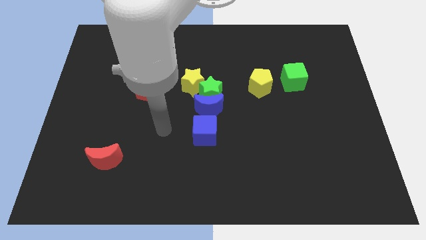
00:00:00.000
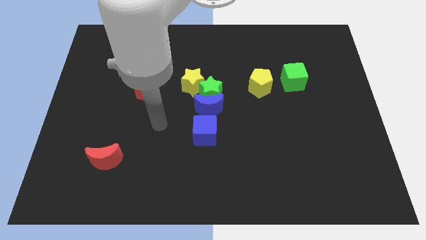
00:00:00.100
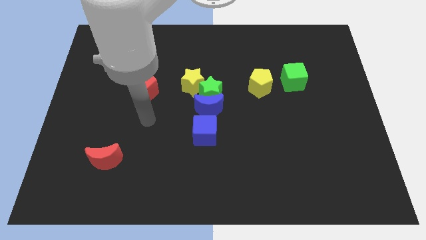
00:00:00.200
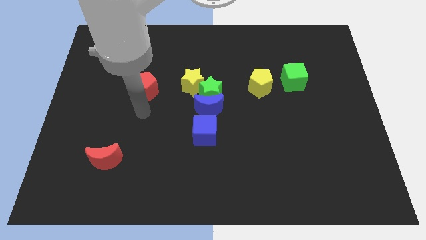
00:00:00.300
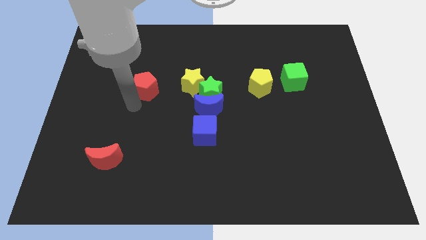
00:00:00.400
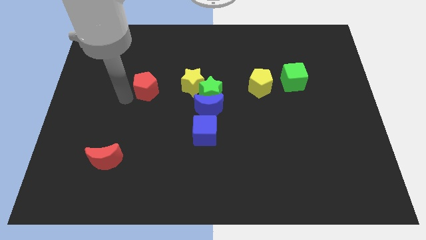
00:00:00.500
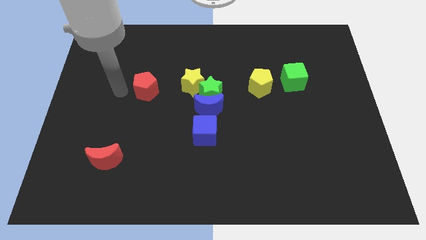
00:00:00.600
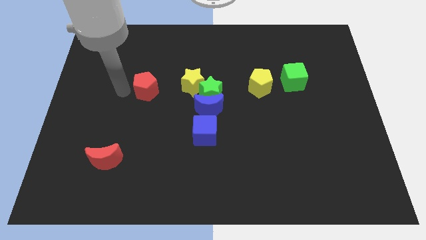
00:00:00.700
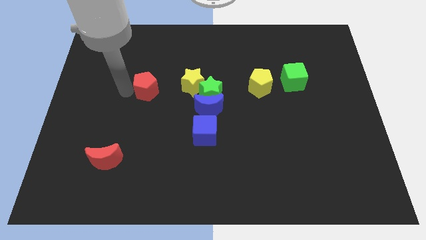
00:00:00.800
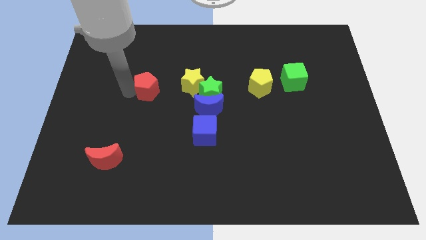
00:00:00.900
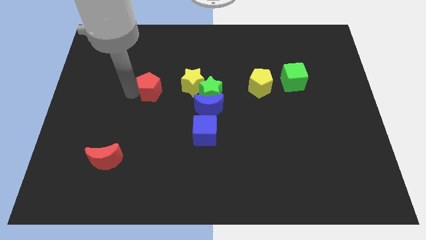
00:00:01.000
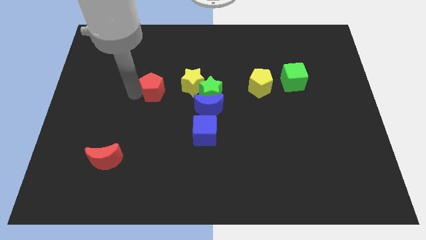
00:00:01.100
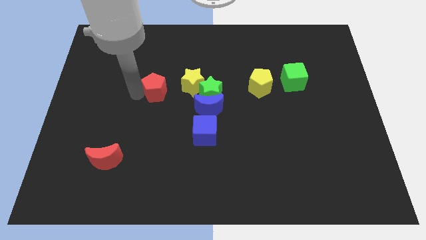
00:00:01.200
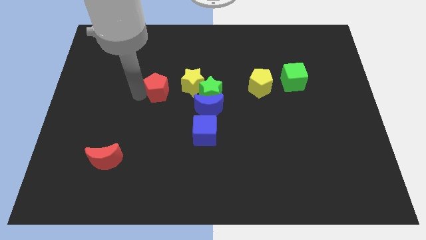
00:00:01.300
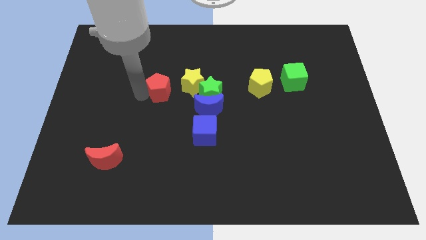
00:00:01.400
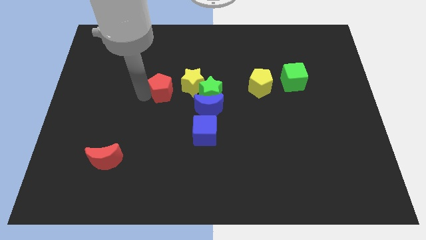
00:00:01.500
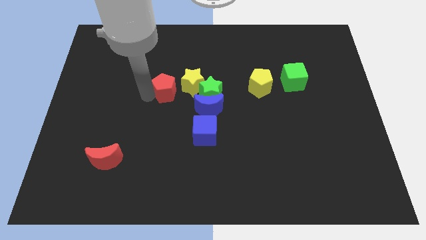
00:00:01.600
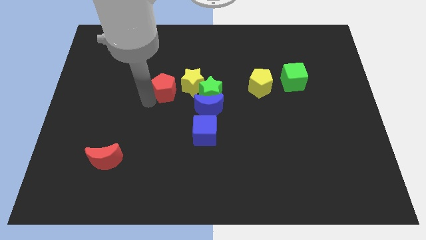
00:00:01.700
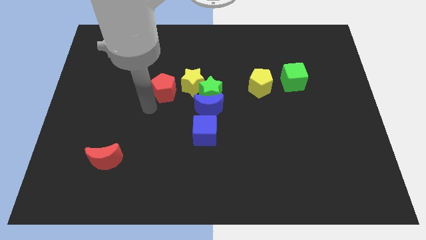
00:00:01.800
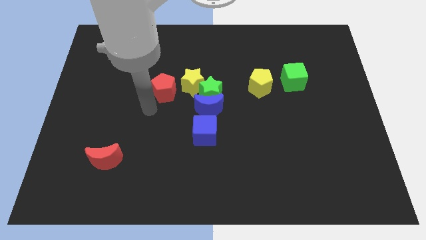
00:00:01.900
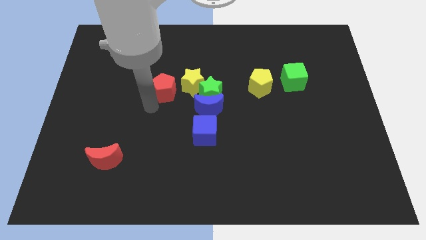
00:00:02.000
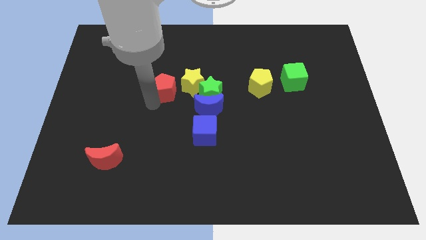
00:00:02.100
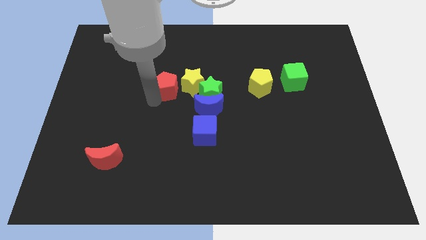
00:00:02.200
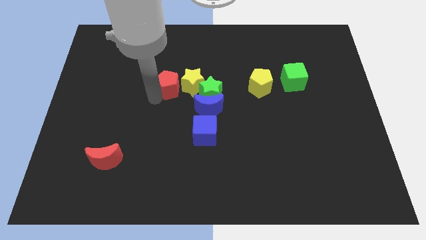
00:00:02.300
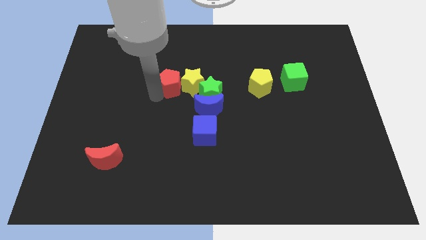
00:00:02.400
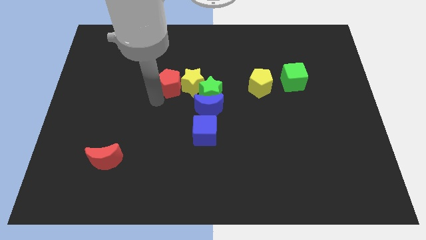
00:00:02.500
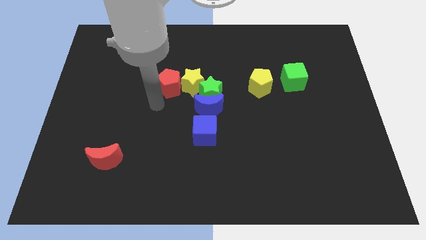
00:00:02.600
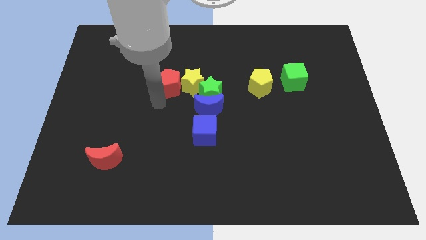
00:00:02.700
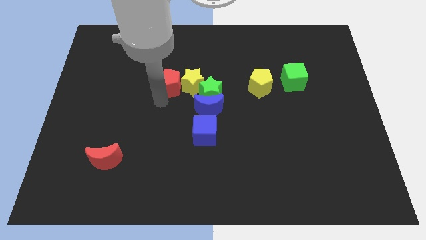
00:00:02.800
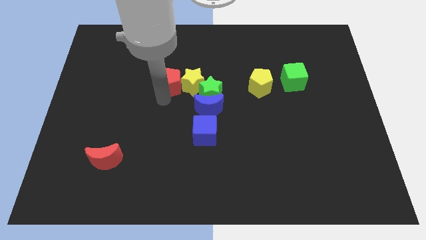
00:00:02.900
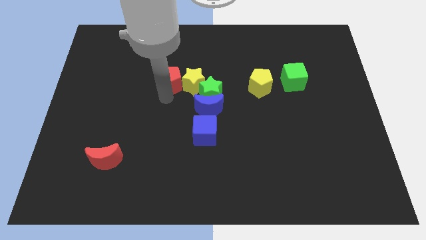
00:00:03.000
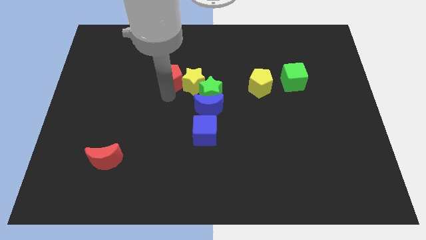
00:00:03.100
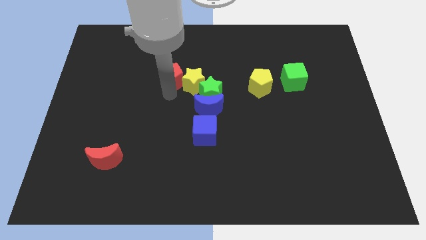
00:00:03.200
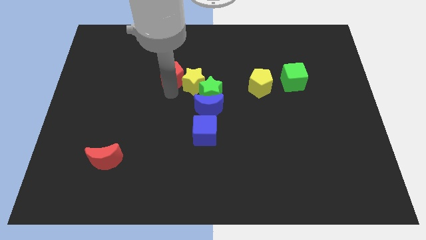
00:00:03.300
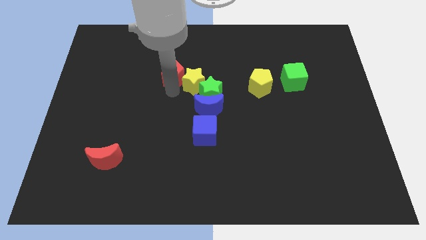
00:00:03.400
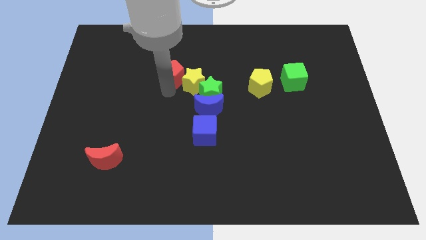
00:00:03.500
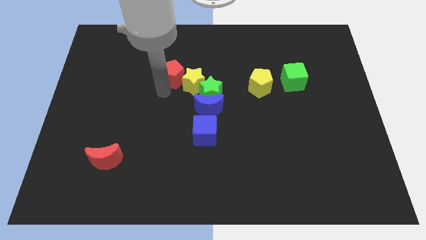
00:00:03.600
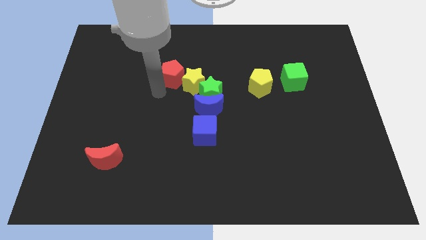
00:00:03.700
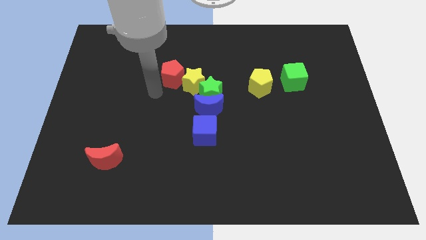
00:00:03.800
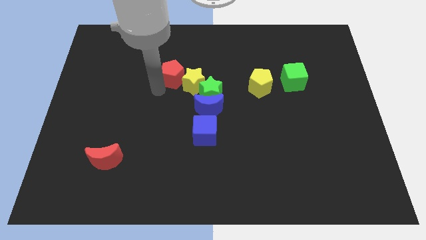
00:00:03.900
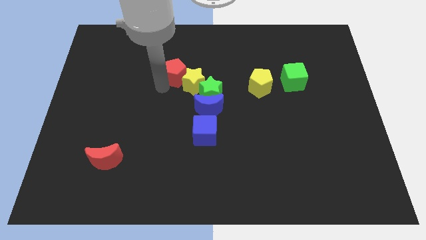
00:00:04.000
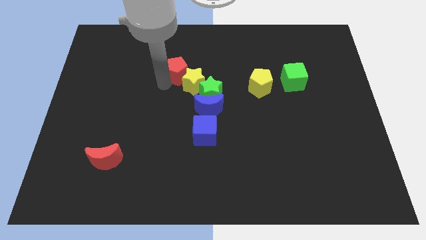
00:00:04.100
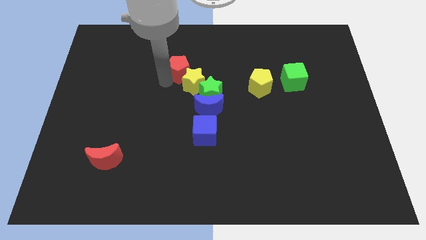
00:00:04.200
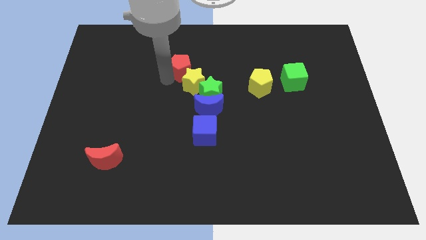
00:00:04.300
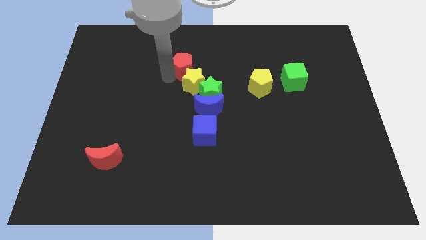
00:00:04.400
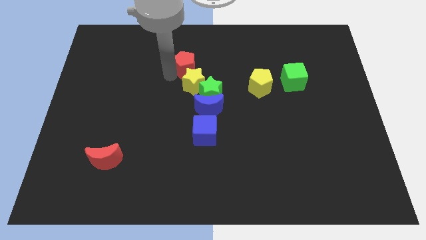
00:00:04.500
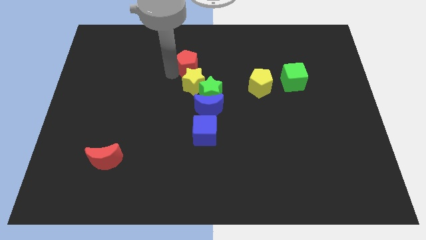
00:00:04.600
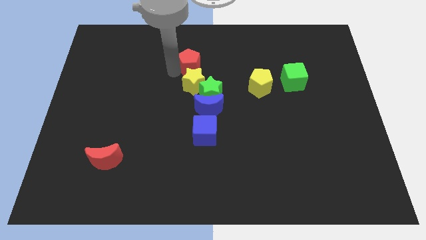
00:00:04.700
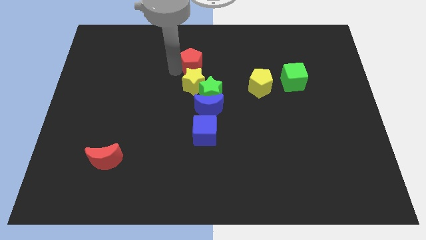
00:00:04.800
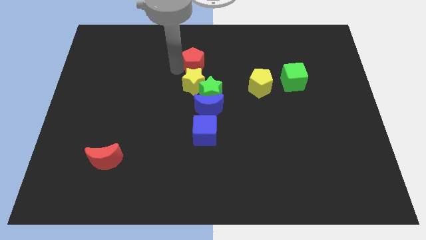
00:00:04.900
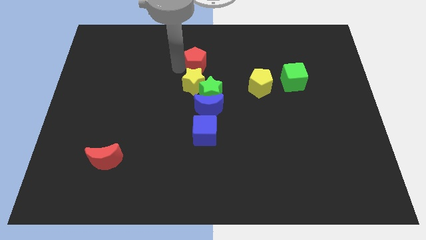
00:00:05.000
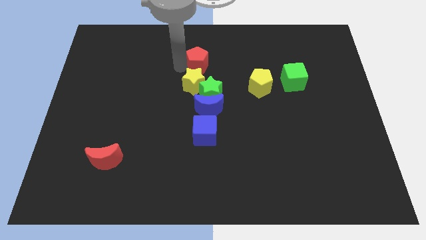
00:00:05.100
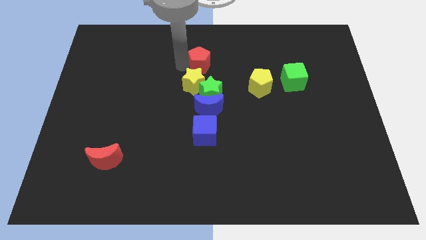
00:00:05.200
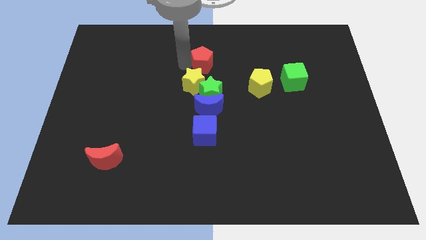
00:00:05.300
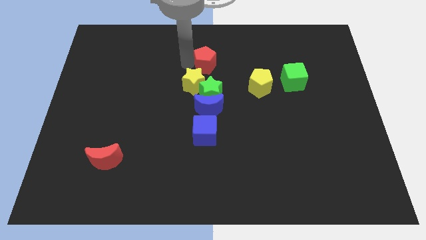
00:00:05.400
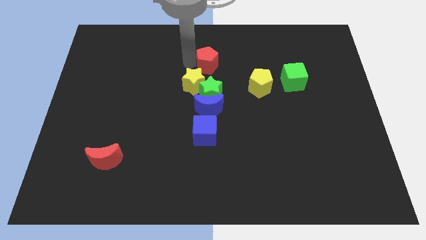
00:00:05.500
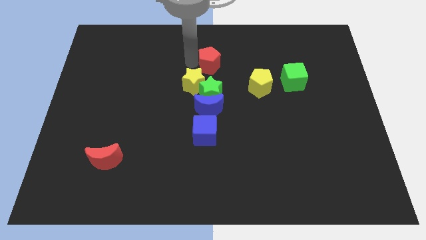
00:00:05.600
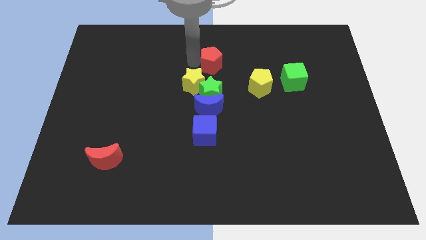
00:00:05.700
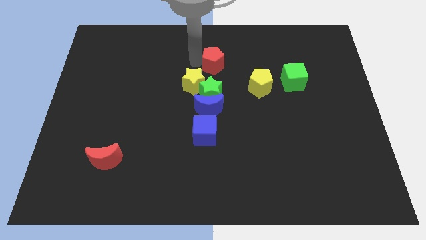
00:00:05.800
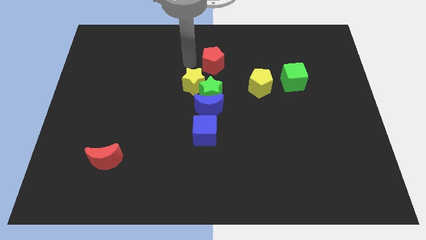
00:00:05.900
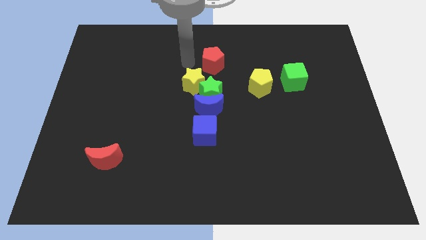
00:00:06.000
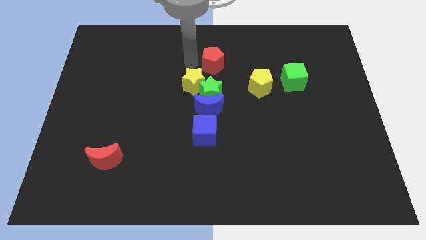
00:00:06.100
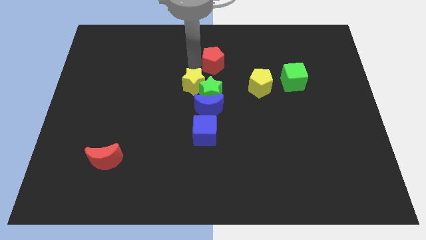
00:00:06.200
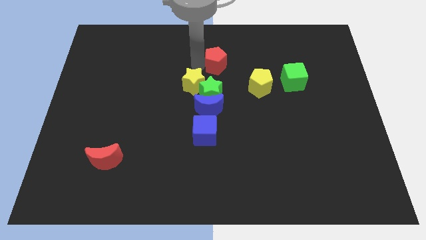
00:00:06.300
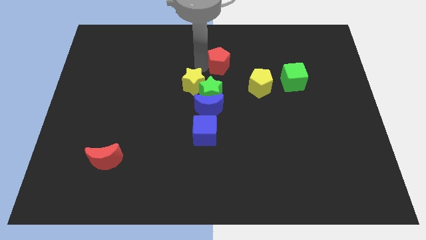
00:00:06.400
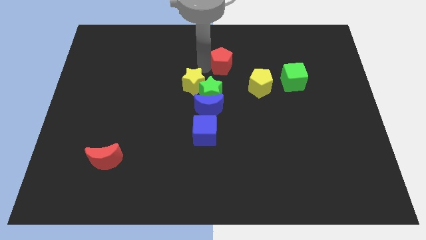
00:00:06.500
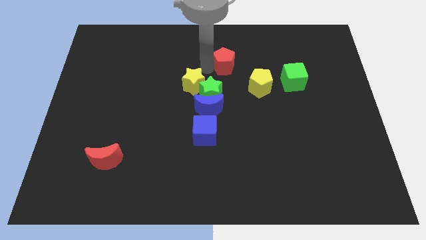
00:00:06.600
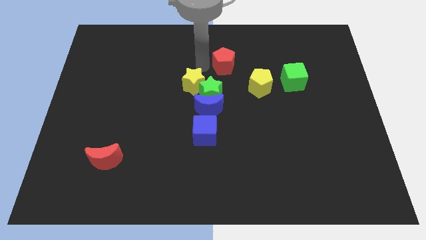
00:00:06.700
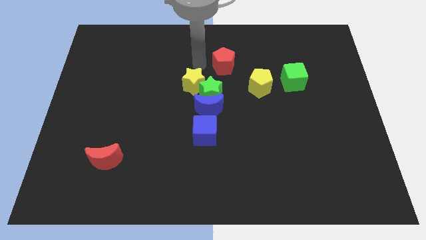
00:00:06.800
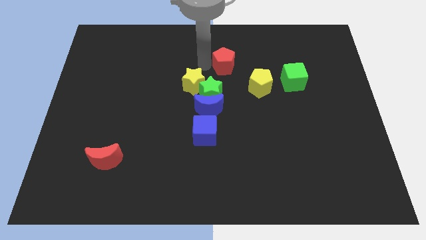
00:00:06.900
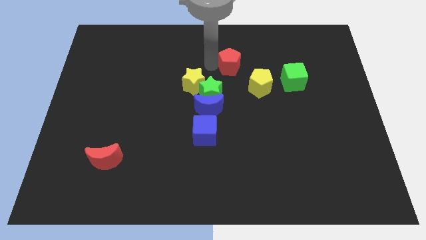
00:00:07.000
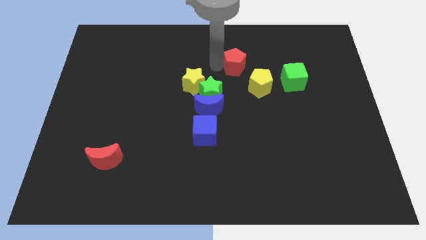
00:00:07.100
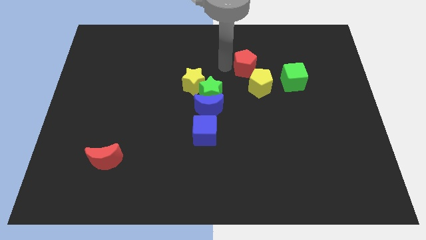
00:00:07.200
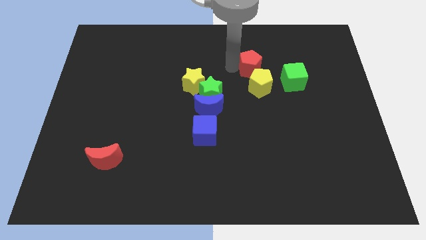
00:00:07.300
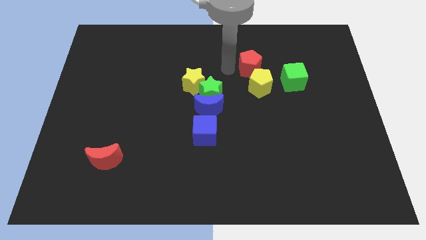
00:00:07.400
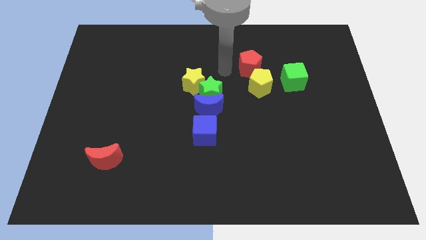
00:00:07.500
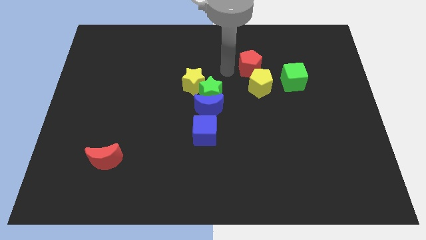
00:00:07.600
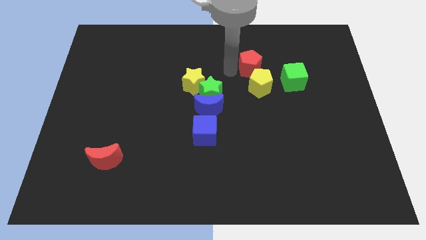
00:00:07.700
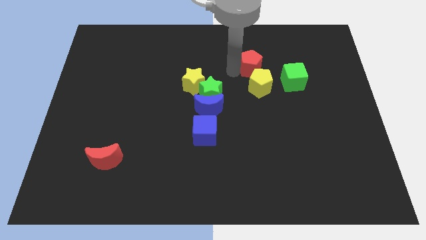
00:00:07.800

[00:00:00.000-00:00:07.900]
push the red pentagon to the top left side of the green cube

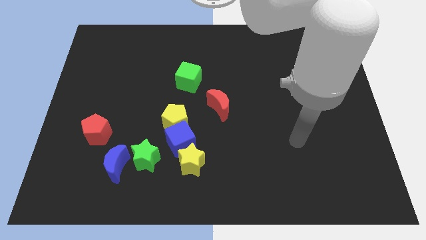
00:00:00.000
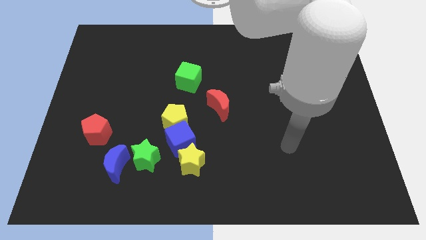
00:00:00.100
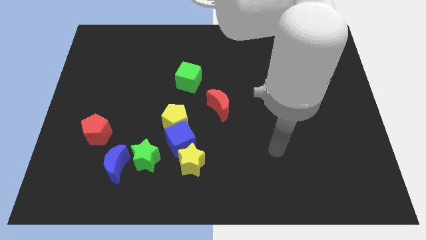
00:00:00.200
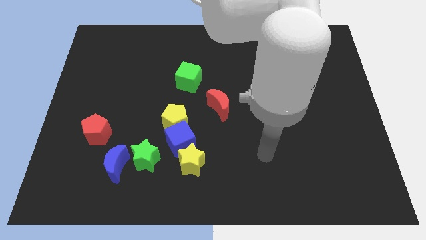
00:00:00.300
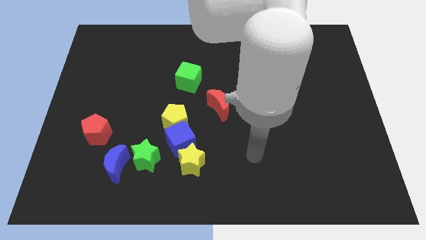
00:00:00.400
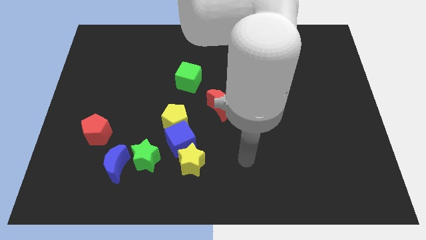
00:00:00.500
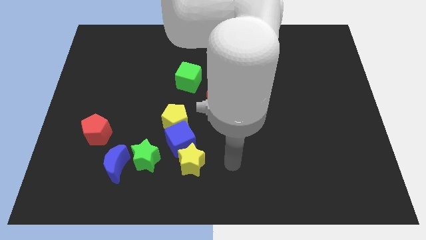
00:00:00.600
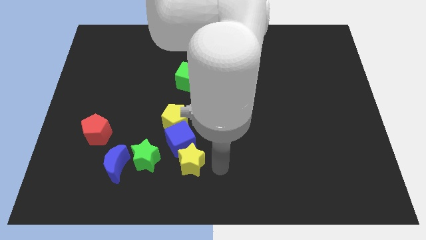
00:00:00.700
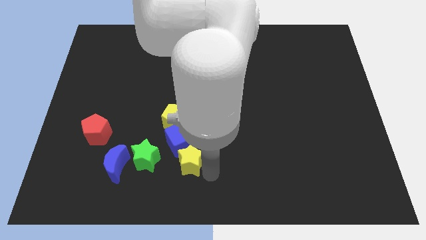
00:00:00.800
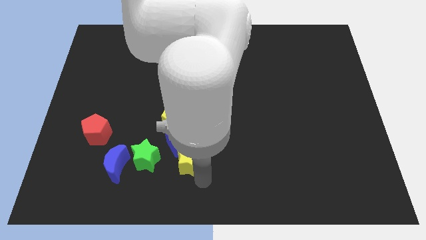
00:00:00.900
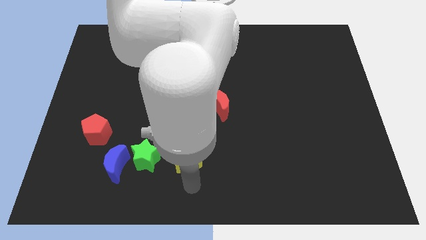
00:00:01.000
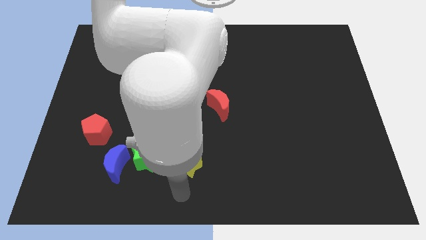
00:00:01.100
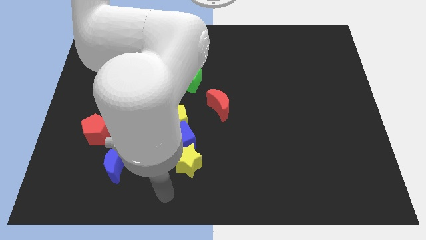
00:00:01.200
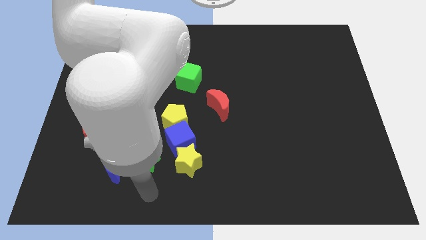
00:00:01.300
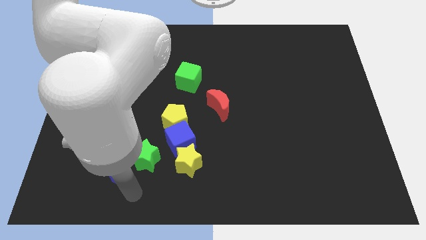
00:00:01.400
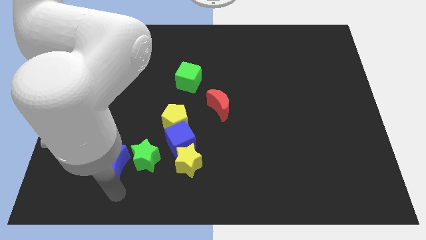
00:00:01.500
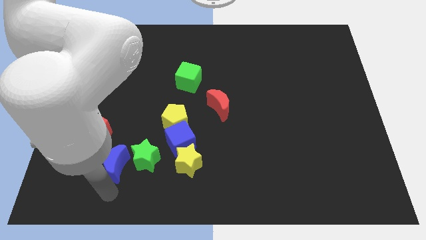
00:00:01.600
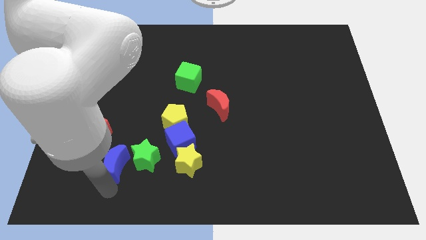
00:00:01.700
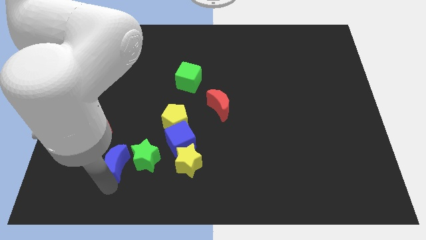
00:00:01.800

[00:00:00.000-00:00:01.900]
put the blue moon to the top left of the green star
